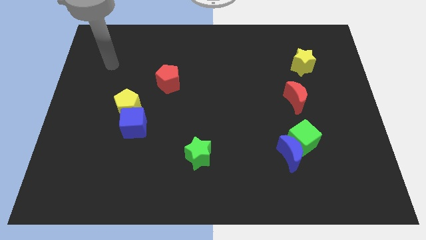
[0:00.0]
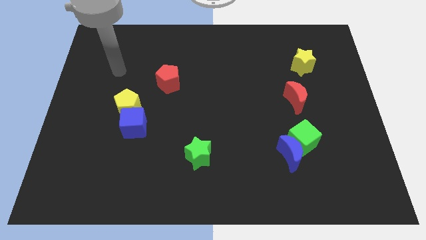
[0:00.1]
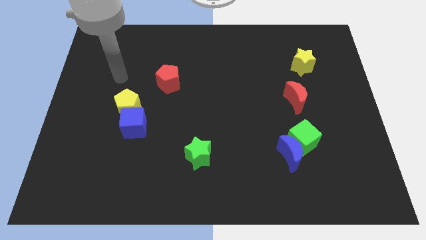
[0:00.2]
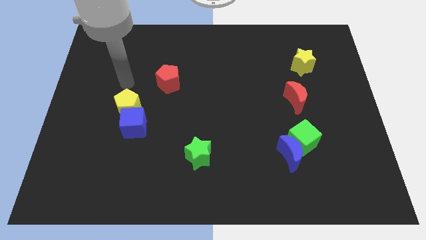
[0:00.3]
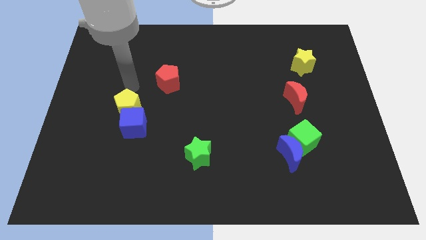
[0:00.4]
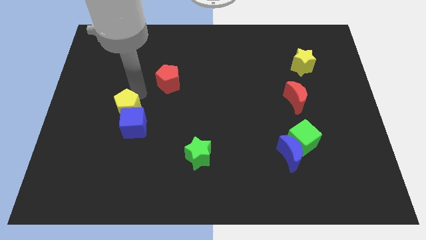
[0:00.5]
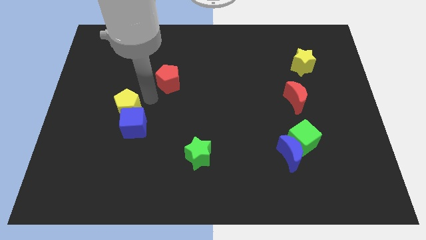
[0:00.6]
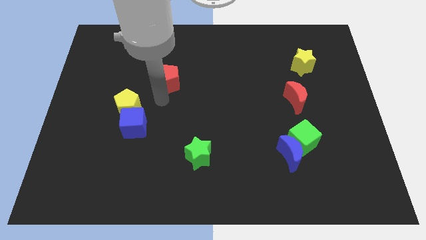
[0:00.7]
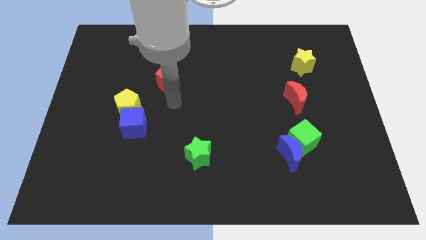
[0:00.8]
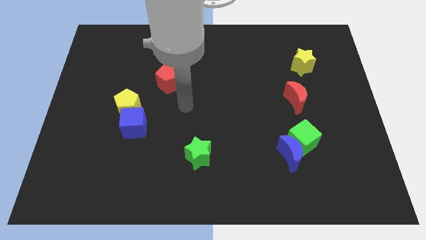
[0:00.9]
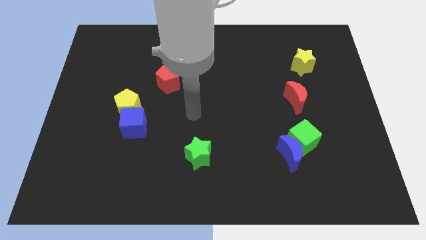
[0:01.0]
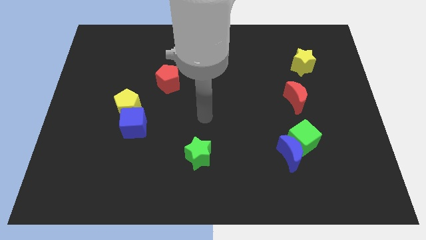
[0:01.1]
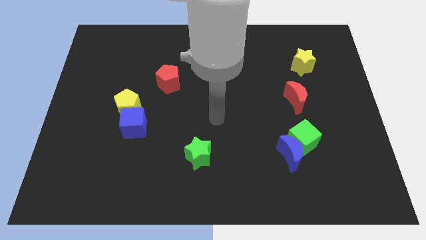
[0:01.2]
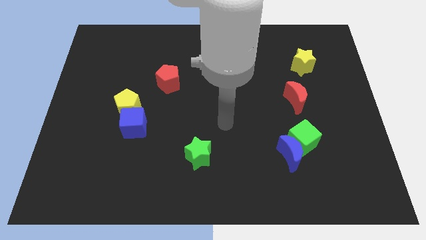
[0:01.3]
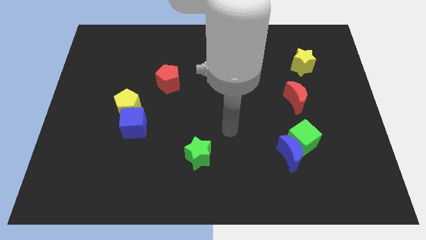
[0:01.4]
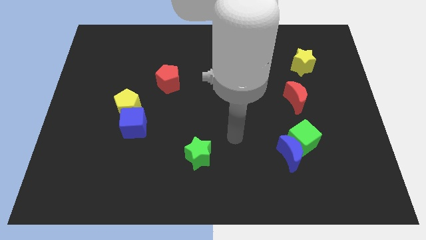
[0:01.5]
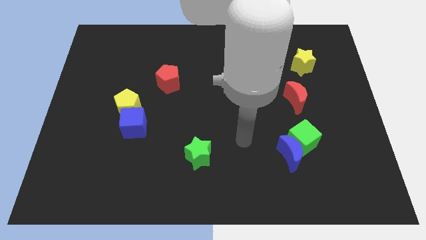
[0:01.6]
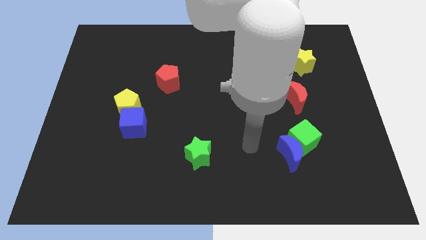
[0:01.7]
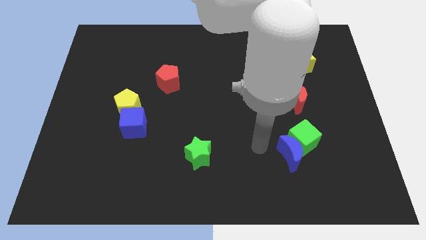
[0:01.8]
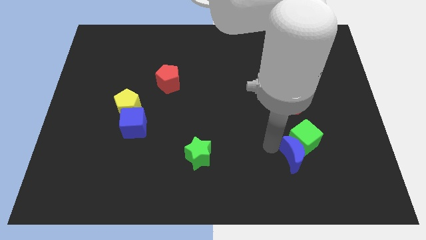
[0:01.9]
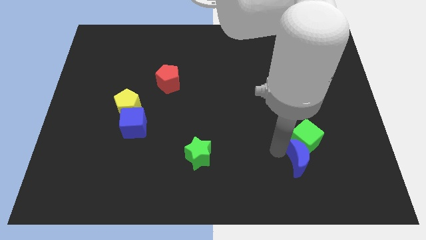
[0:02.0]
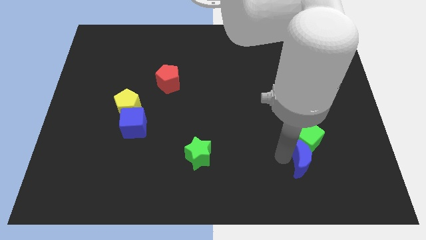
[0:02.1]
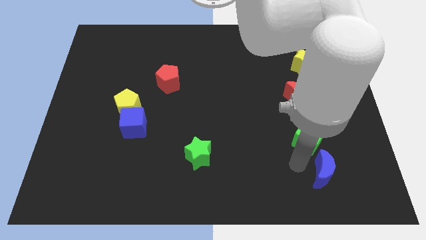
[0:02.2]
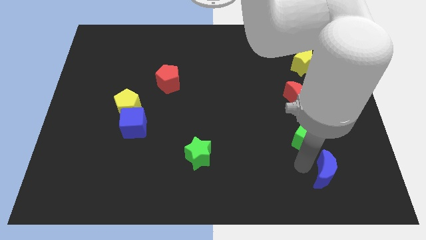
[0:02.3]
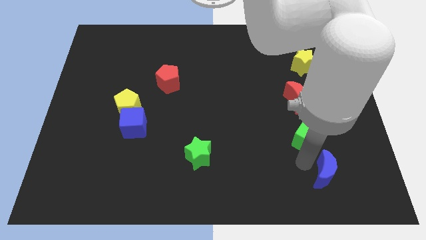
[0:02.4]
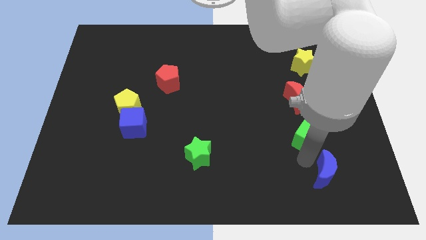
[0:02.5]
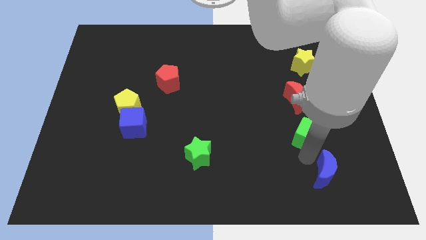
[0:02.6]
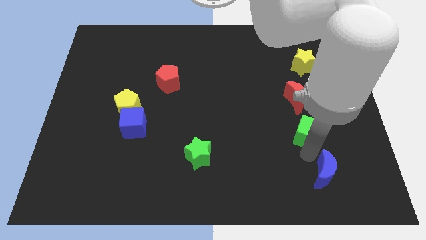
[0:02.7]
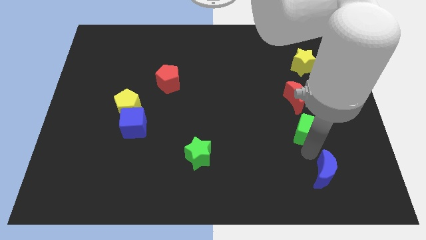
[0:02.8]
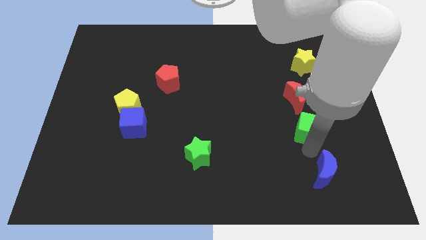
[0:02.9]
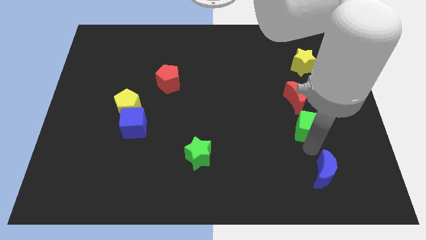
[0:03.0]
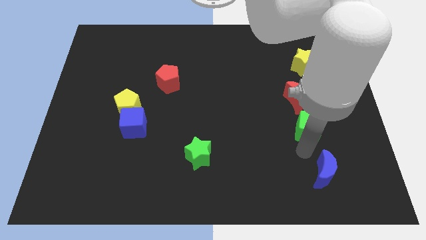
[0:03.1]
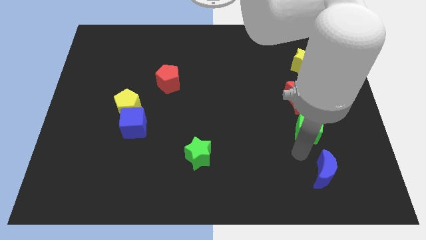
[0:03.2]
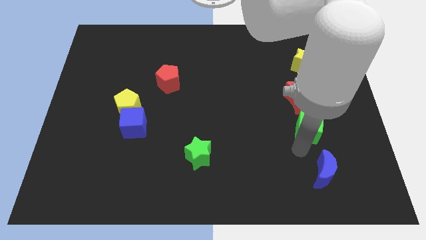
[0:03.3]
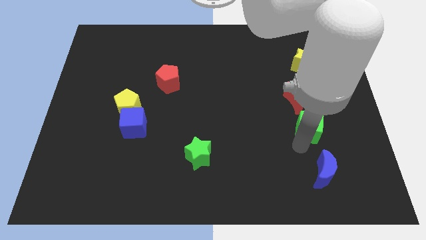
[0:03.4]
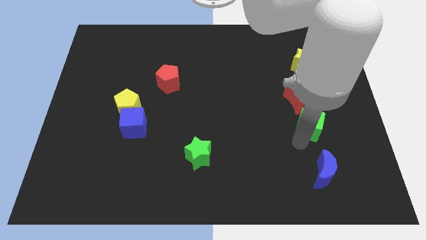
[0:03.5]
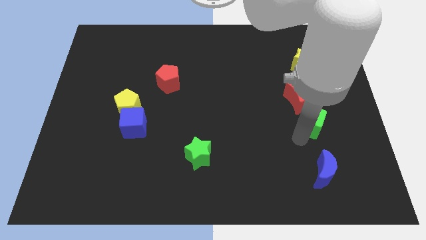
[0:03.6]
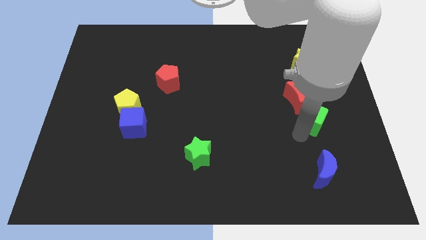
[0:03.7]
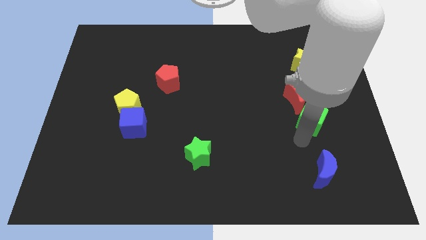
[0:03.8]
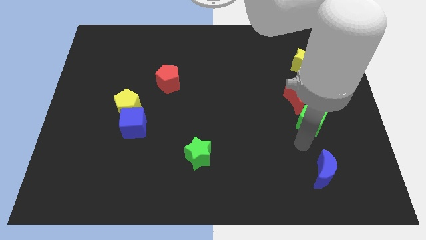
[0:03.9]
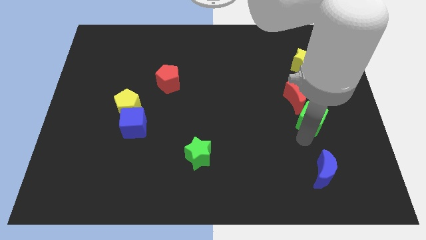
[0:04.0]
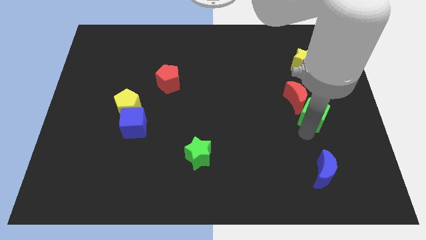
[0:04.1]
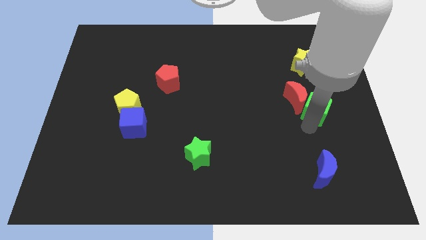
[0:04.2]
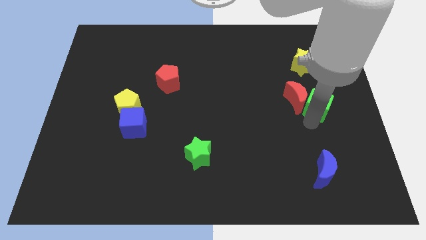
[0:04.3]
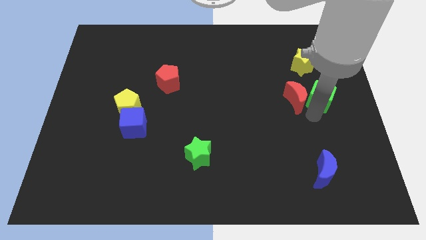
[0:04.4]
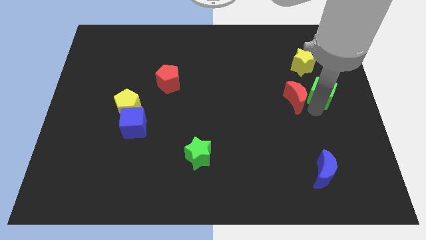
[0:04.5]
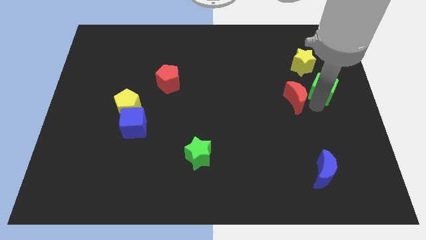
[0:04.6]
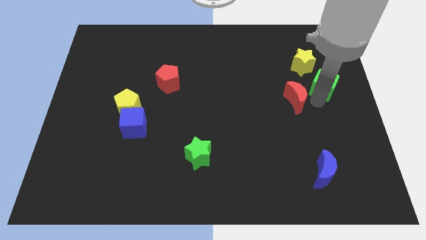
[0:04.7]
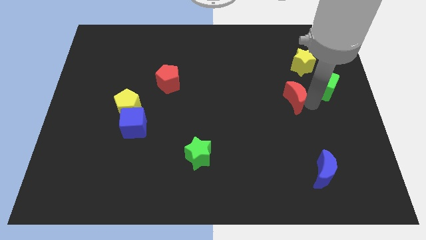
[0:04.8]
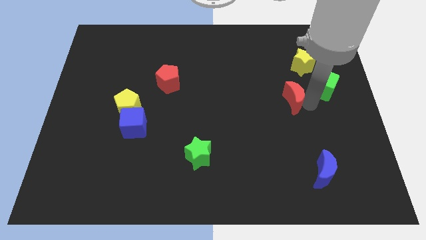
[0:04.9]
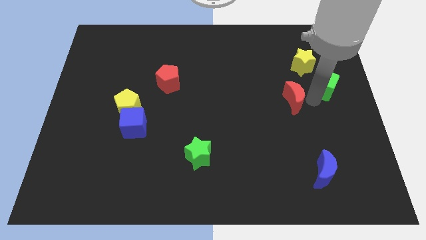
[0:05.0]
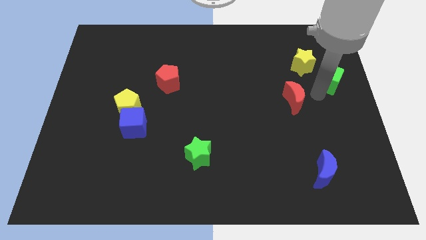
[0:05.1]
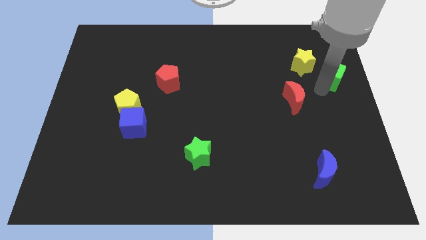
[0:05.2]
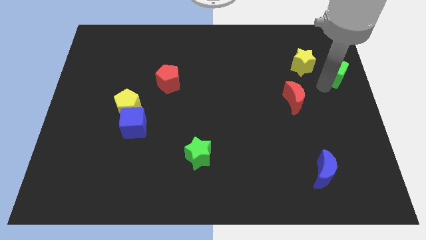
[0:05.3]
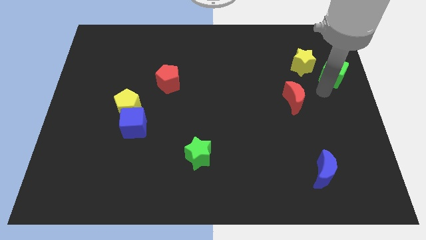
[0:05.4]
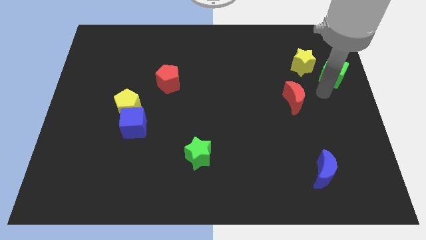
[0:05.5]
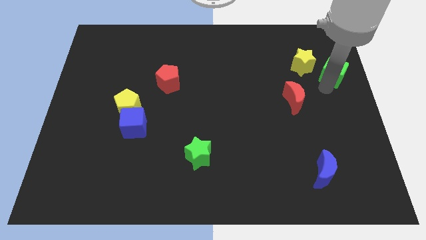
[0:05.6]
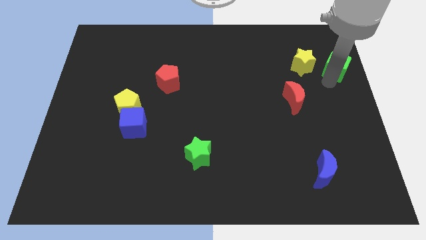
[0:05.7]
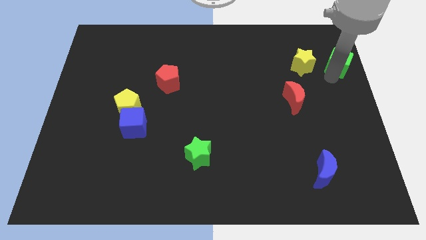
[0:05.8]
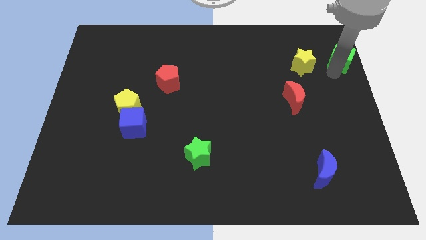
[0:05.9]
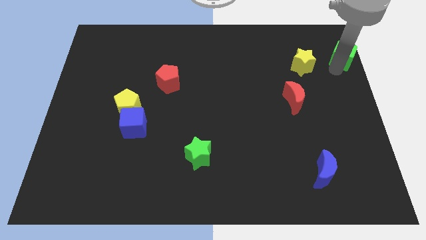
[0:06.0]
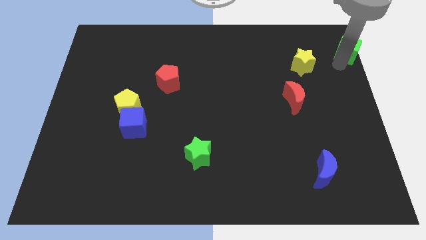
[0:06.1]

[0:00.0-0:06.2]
push the green cube to the upper right corner

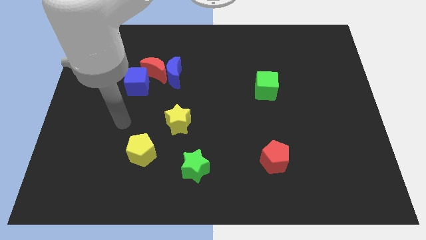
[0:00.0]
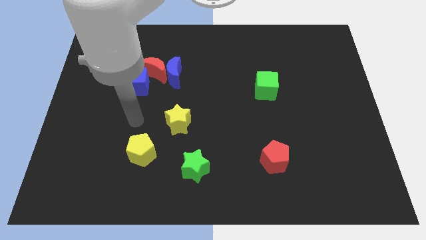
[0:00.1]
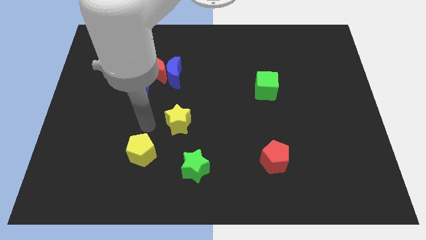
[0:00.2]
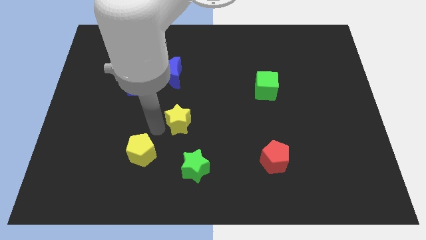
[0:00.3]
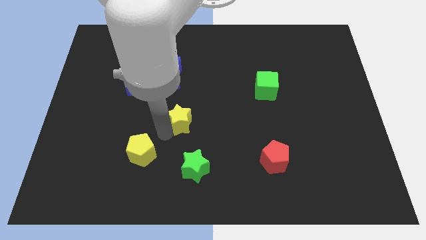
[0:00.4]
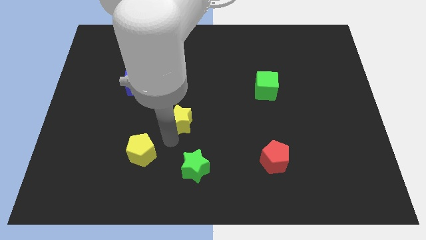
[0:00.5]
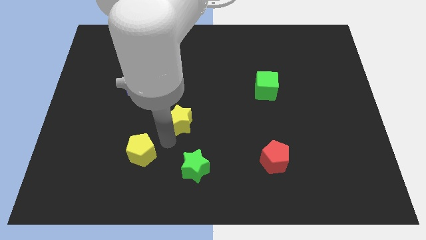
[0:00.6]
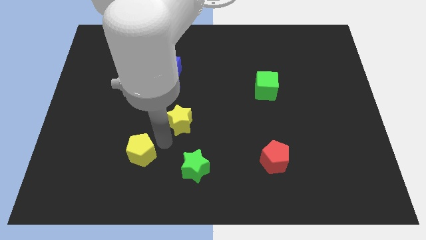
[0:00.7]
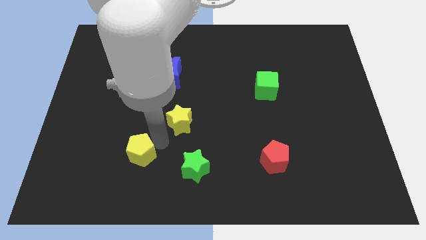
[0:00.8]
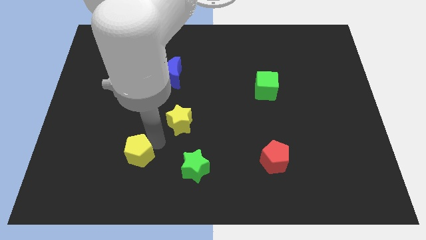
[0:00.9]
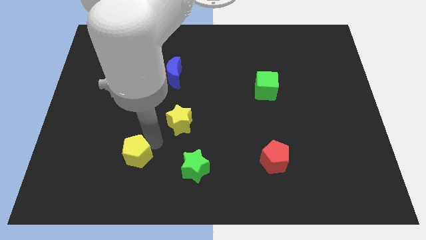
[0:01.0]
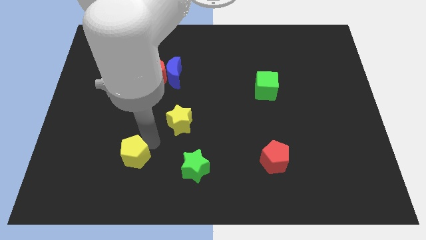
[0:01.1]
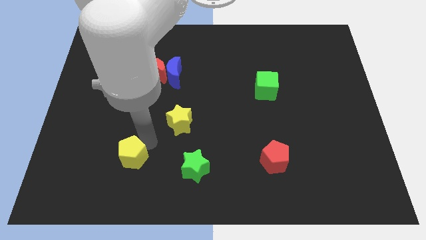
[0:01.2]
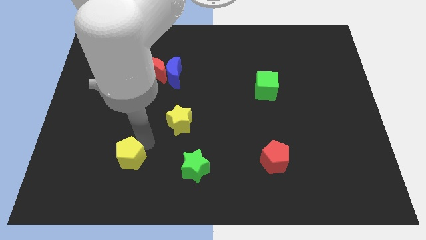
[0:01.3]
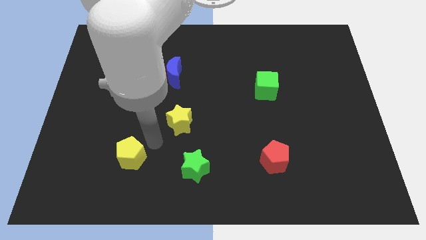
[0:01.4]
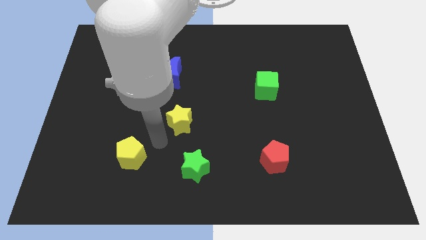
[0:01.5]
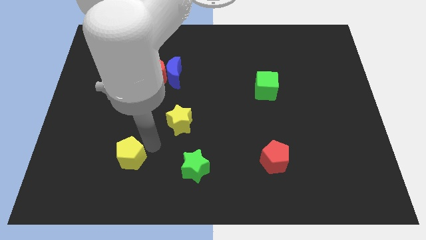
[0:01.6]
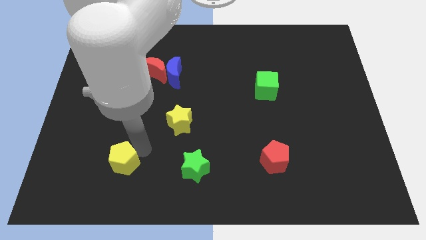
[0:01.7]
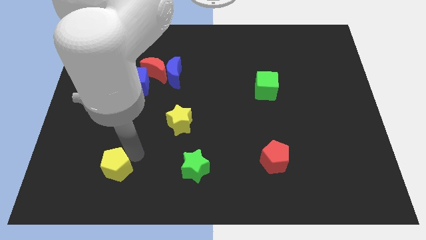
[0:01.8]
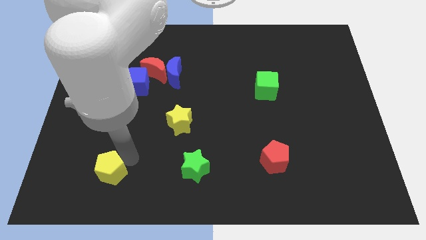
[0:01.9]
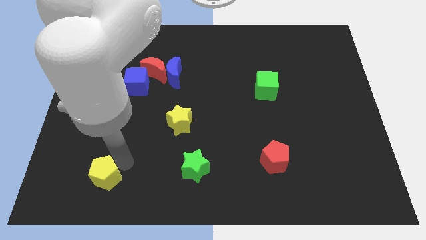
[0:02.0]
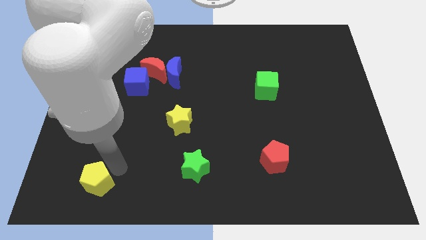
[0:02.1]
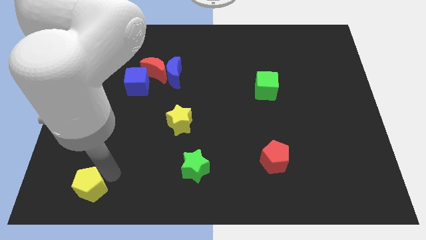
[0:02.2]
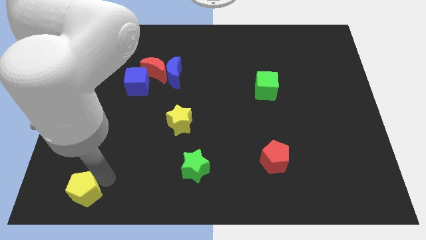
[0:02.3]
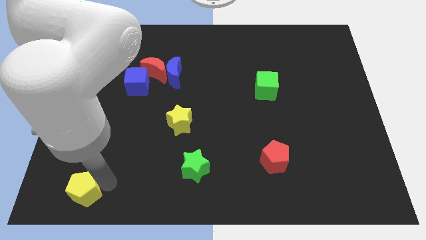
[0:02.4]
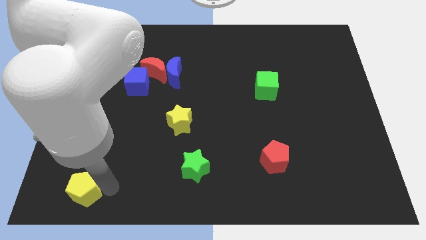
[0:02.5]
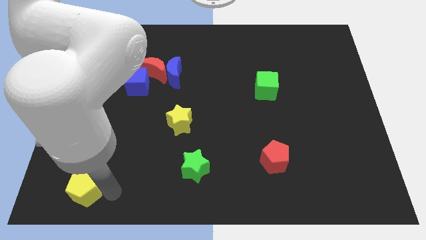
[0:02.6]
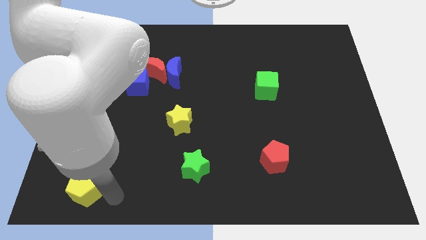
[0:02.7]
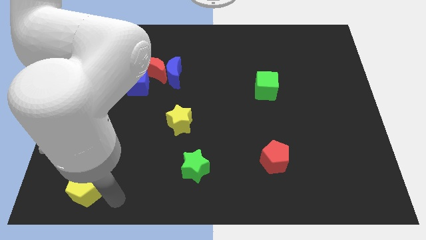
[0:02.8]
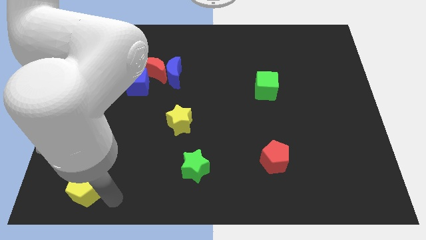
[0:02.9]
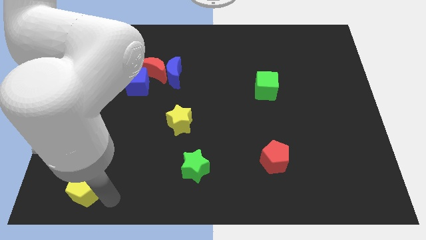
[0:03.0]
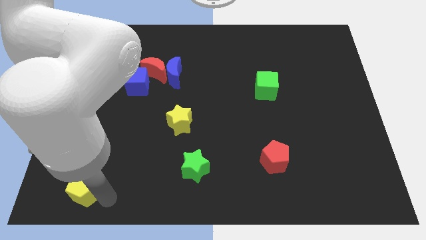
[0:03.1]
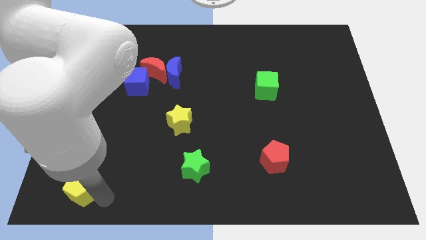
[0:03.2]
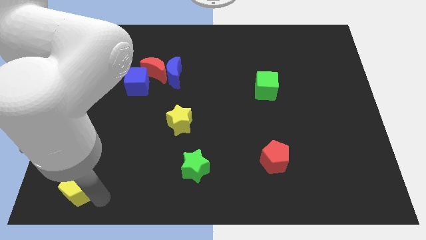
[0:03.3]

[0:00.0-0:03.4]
put the yellow pentagon to the bottom left
